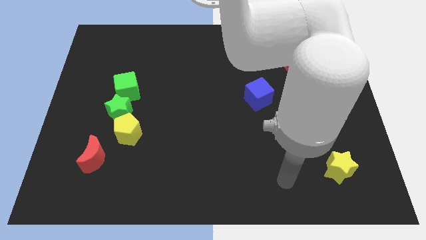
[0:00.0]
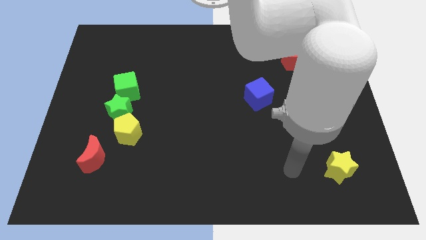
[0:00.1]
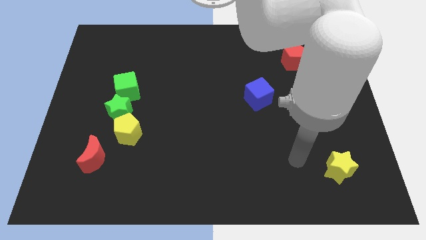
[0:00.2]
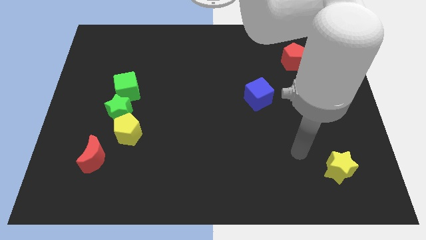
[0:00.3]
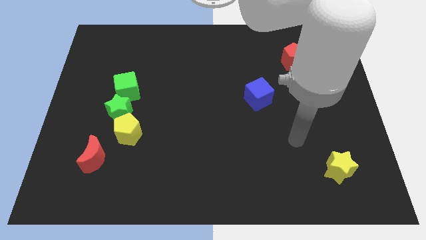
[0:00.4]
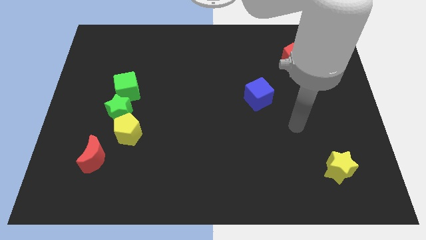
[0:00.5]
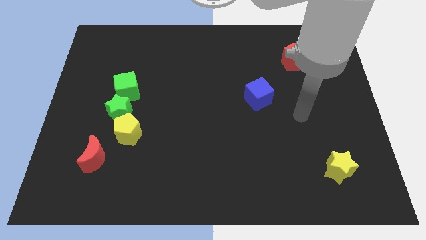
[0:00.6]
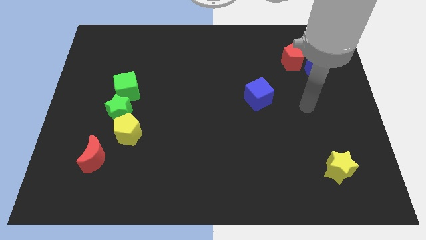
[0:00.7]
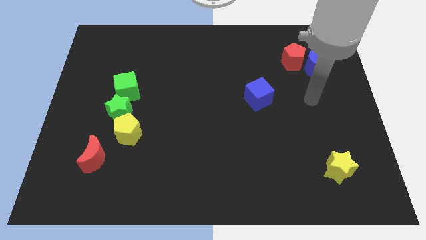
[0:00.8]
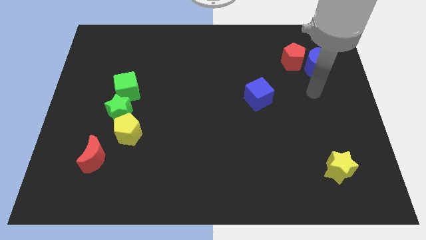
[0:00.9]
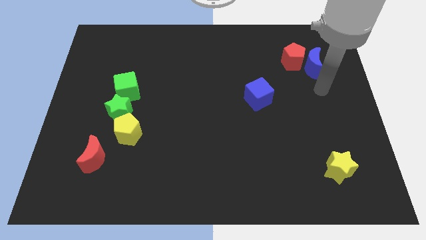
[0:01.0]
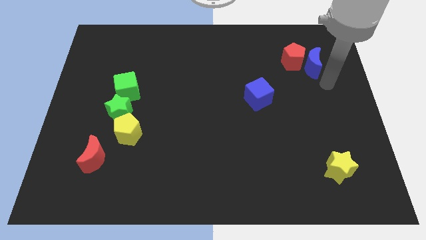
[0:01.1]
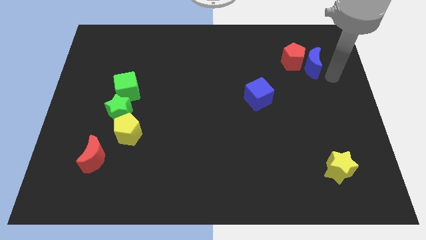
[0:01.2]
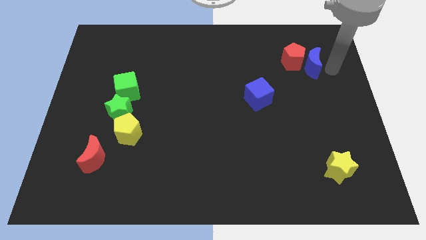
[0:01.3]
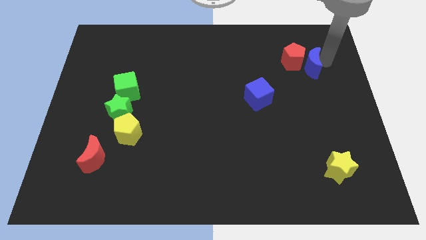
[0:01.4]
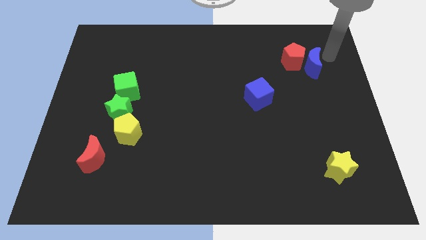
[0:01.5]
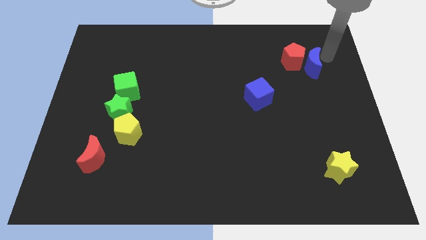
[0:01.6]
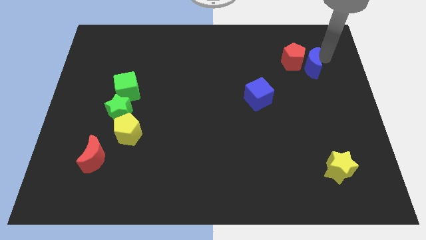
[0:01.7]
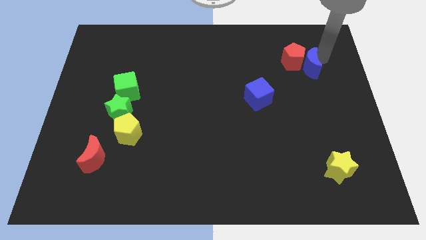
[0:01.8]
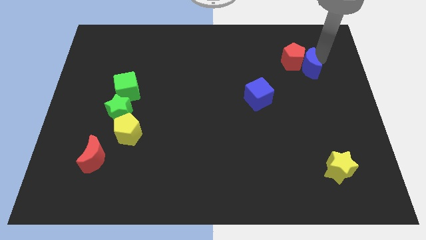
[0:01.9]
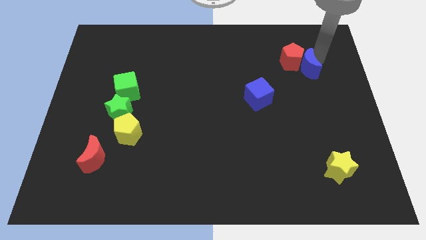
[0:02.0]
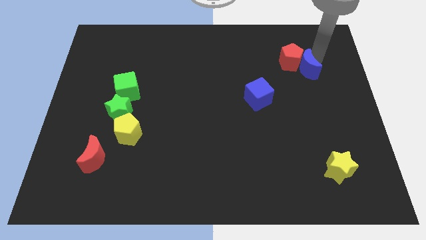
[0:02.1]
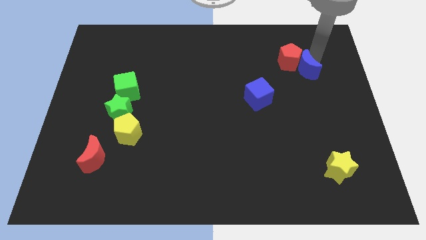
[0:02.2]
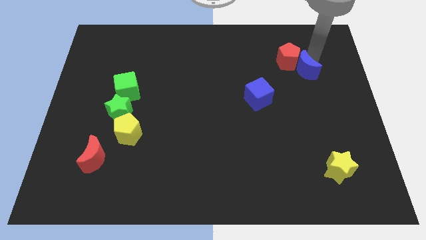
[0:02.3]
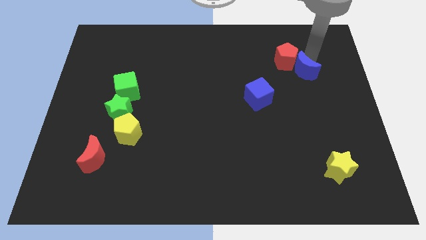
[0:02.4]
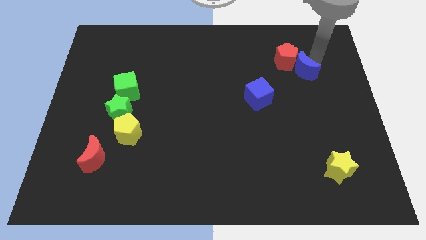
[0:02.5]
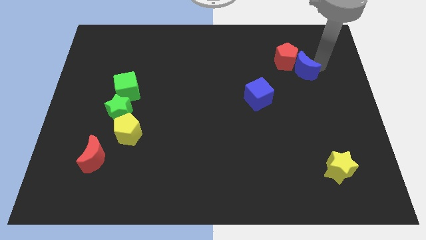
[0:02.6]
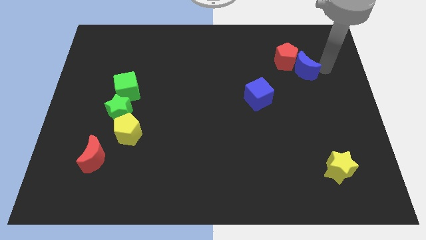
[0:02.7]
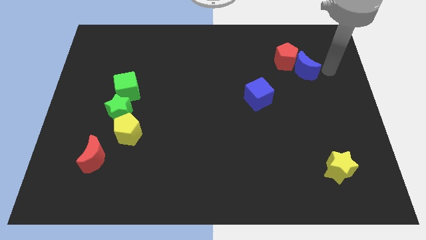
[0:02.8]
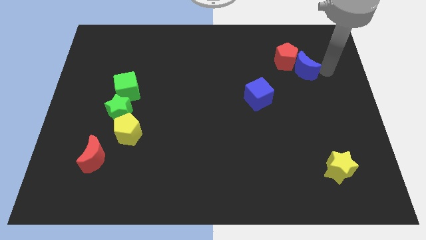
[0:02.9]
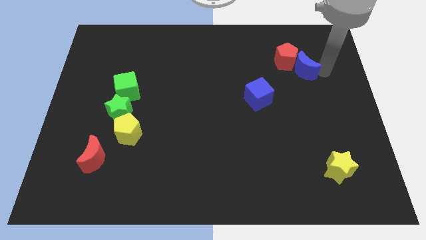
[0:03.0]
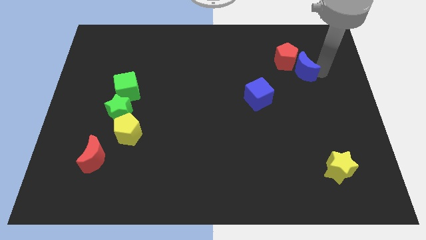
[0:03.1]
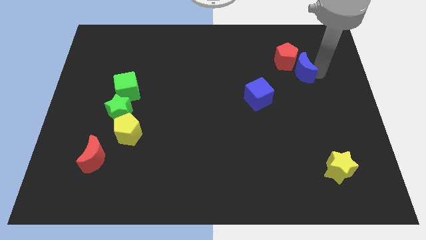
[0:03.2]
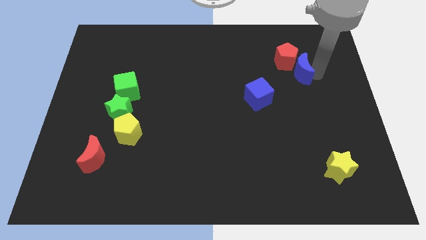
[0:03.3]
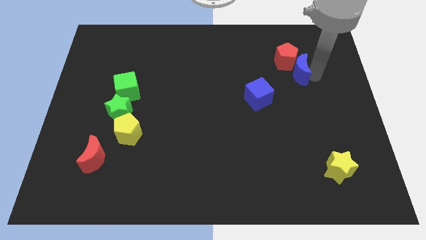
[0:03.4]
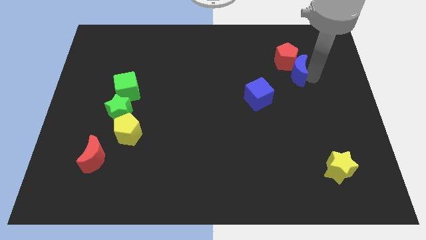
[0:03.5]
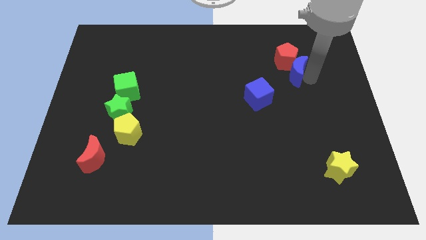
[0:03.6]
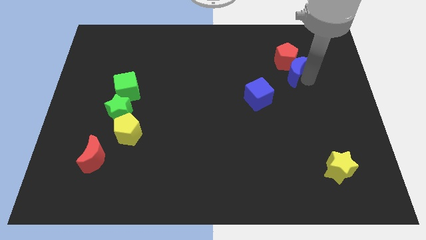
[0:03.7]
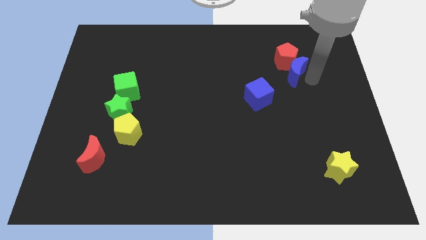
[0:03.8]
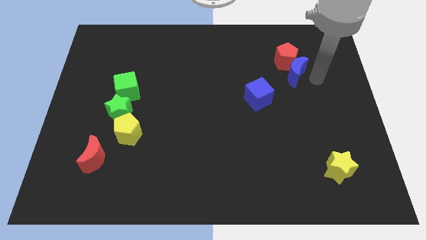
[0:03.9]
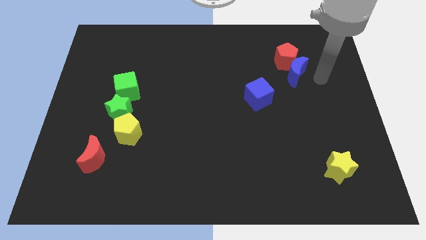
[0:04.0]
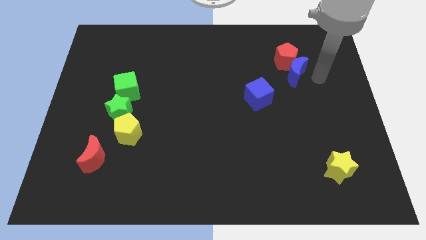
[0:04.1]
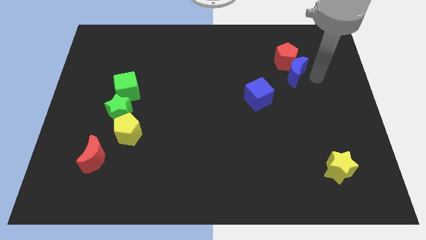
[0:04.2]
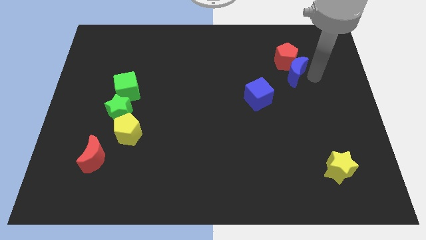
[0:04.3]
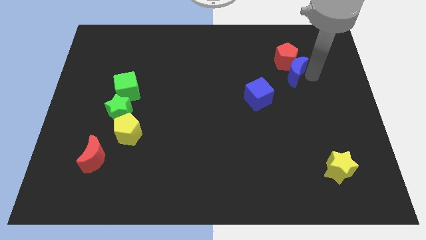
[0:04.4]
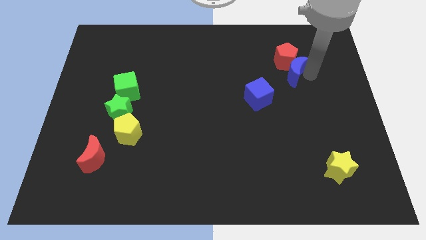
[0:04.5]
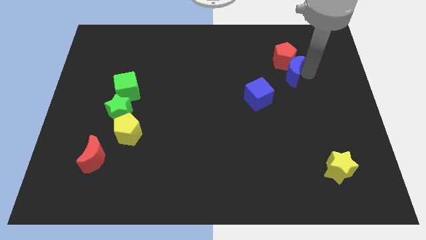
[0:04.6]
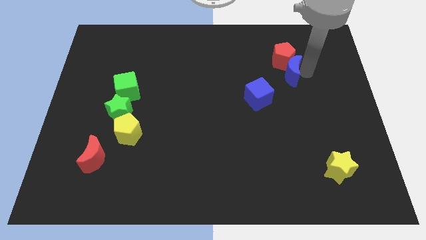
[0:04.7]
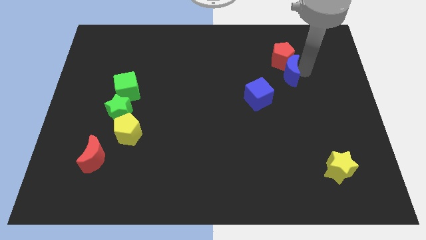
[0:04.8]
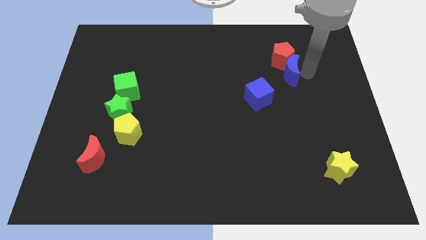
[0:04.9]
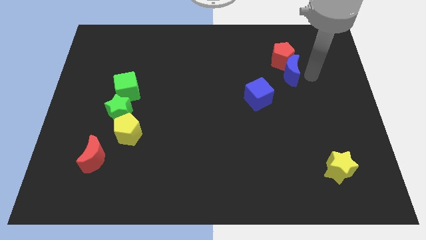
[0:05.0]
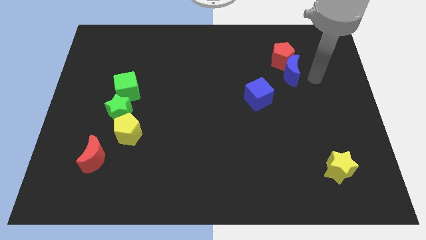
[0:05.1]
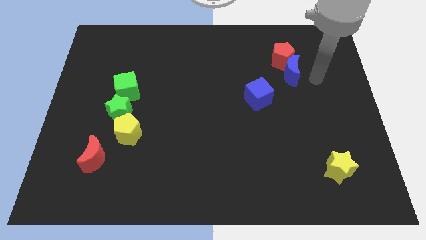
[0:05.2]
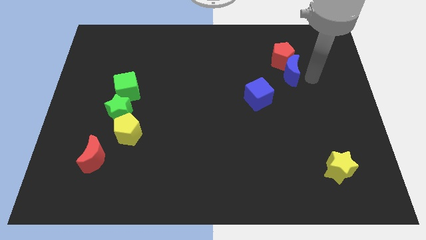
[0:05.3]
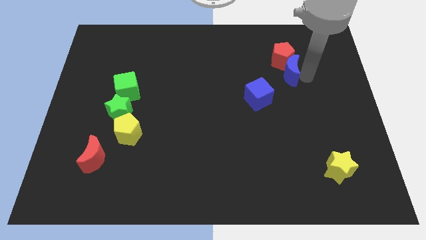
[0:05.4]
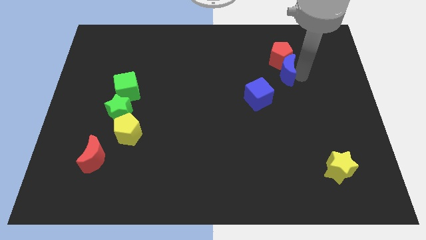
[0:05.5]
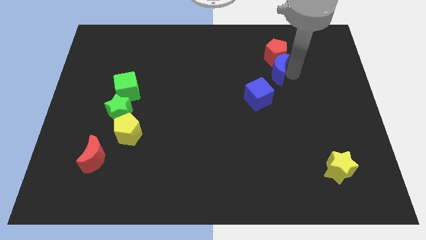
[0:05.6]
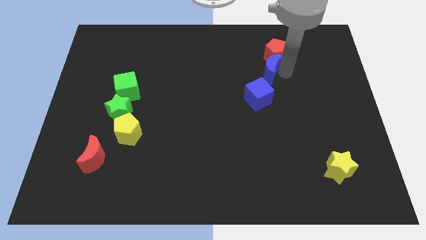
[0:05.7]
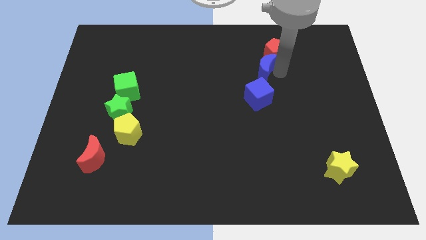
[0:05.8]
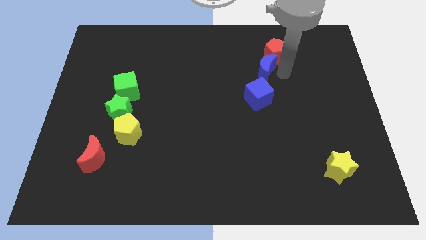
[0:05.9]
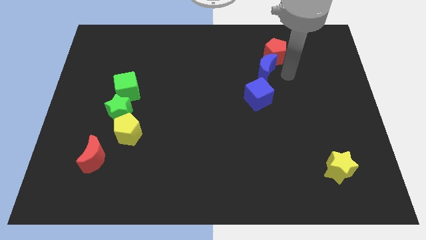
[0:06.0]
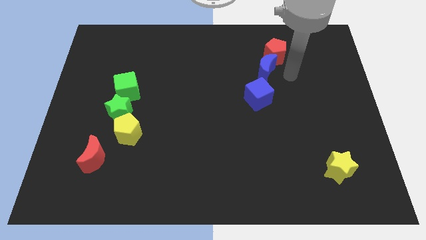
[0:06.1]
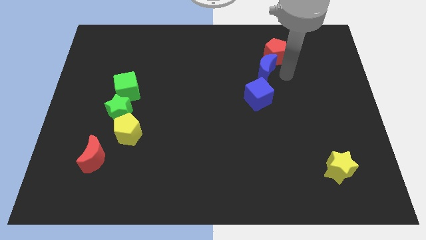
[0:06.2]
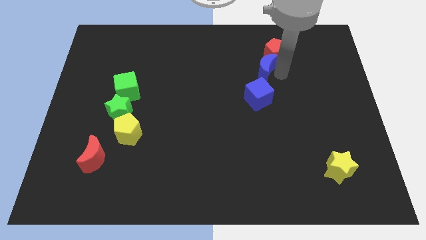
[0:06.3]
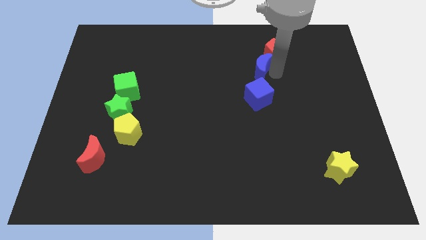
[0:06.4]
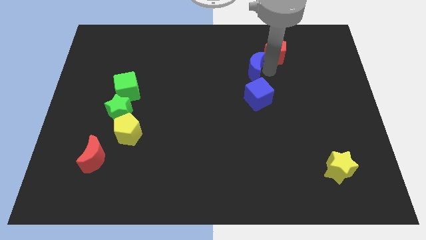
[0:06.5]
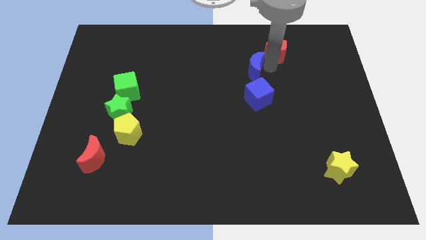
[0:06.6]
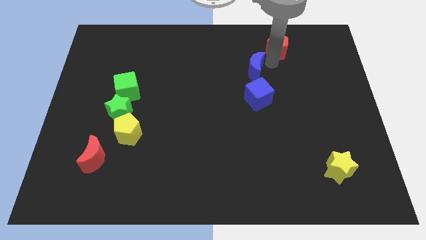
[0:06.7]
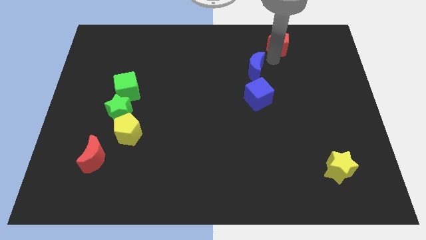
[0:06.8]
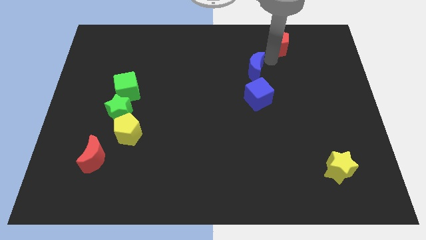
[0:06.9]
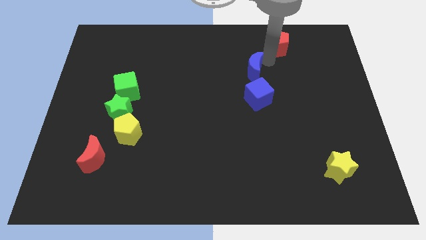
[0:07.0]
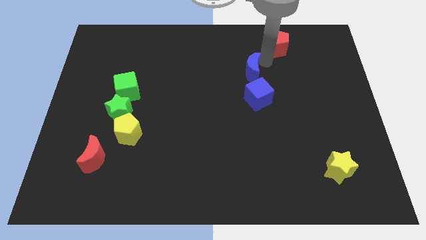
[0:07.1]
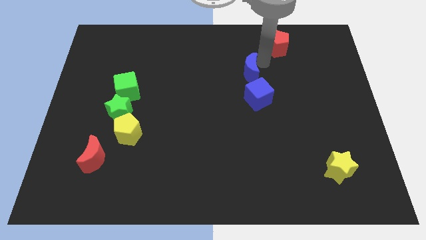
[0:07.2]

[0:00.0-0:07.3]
push the blue moon diagonally up and to the left of the blue cube
